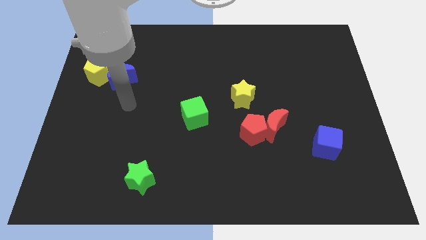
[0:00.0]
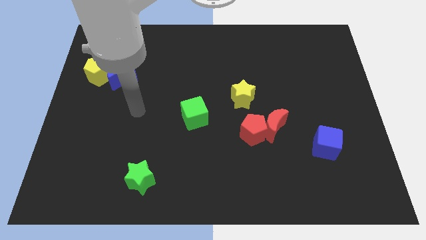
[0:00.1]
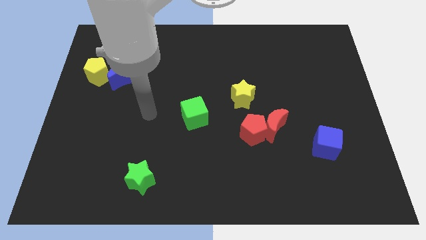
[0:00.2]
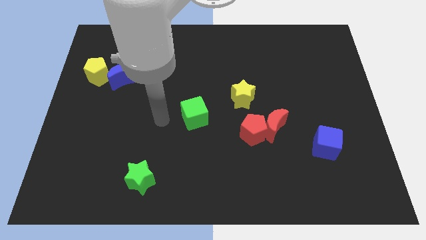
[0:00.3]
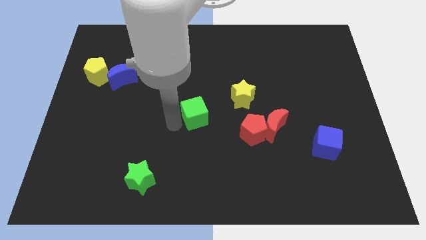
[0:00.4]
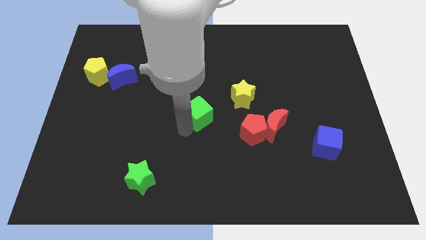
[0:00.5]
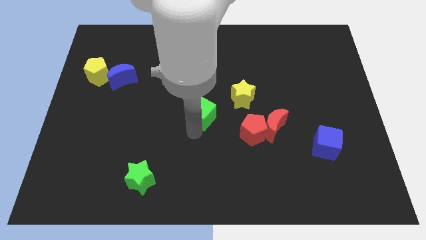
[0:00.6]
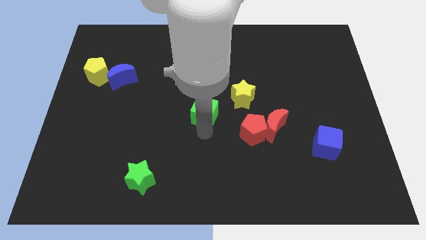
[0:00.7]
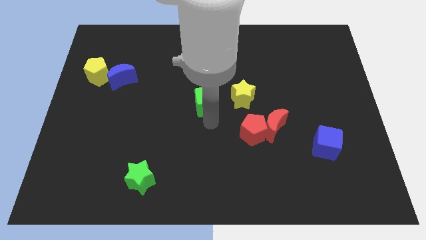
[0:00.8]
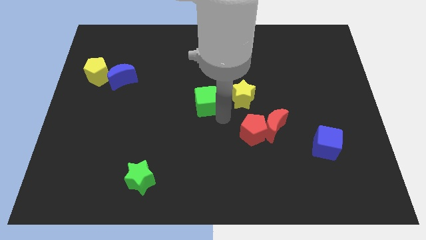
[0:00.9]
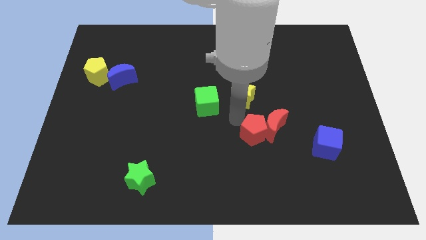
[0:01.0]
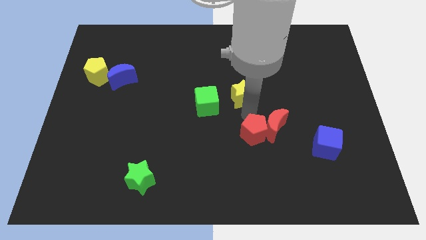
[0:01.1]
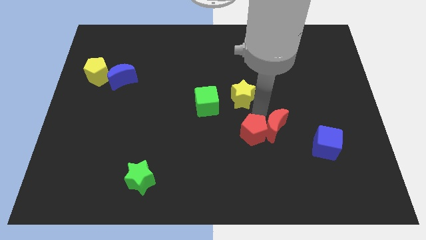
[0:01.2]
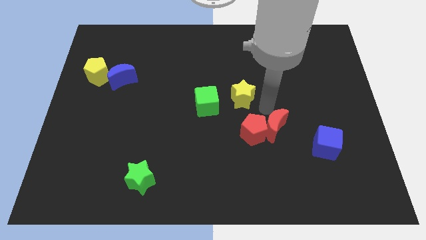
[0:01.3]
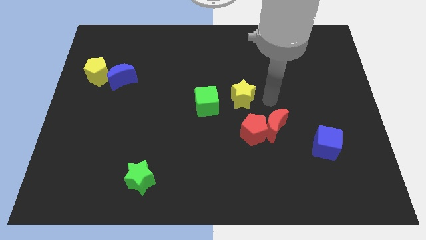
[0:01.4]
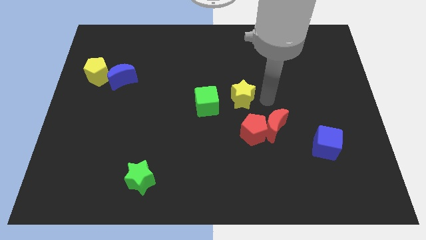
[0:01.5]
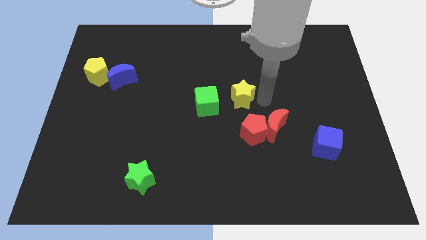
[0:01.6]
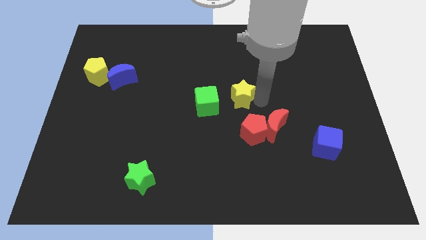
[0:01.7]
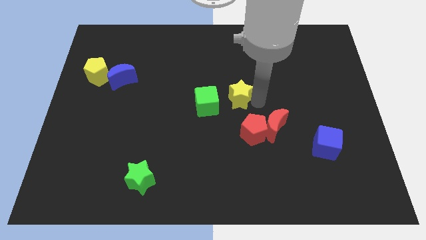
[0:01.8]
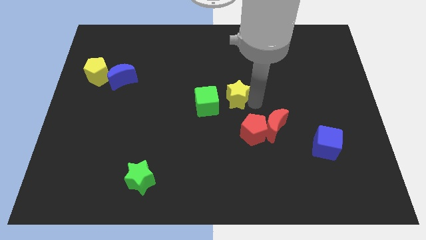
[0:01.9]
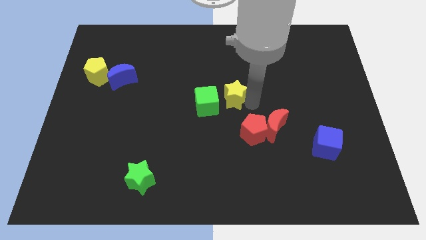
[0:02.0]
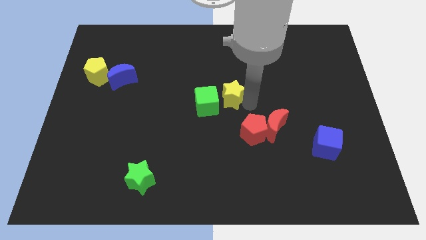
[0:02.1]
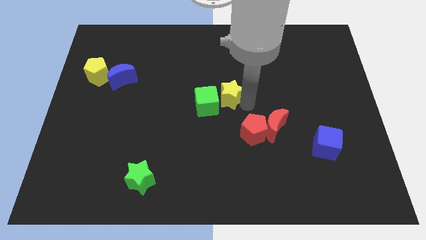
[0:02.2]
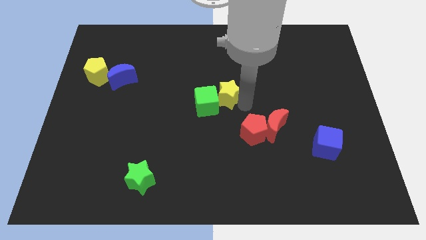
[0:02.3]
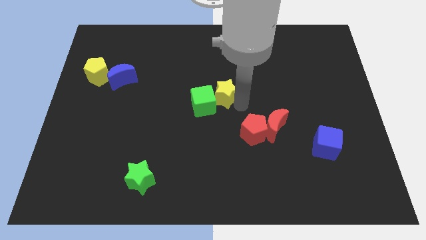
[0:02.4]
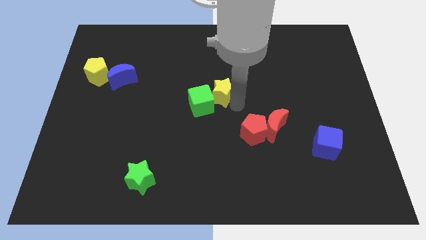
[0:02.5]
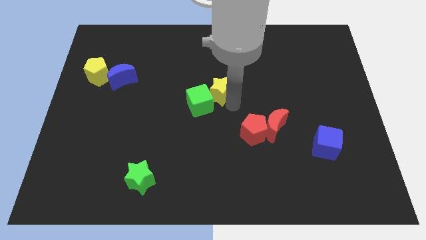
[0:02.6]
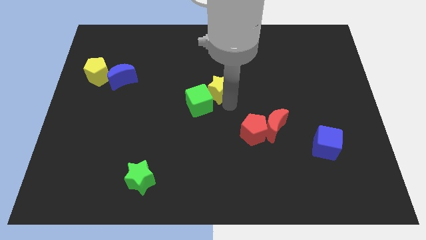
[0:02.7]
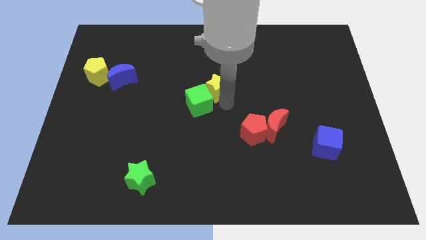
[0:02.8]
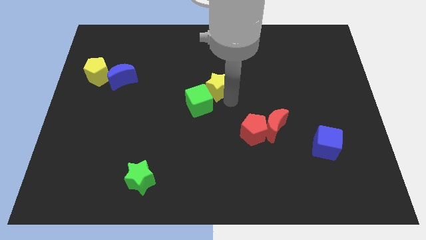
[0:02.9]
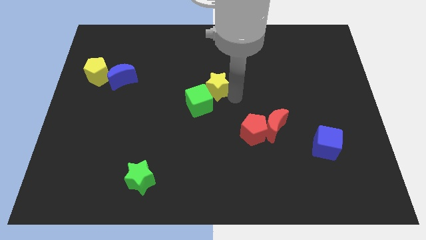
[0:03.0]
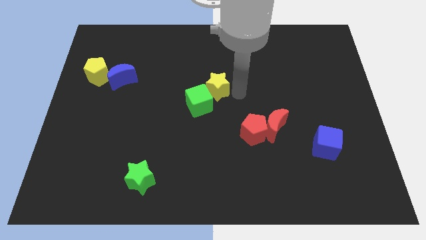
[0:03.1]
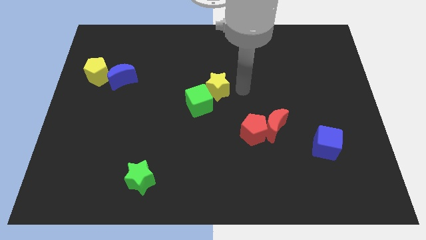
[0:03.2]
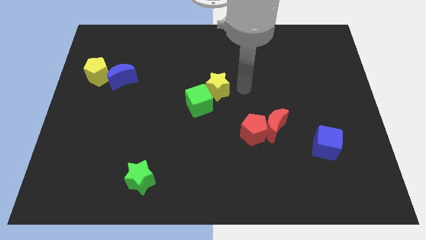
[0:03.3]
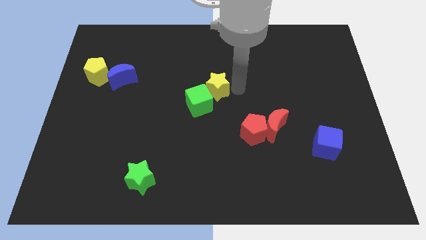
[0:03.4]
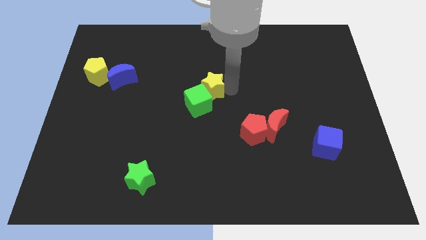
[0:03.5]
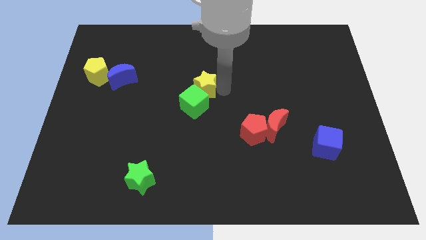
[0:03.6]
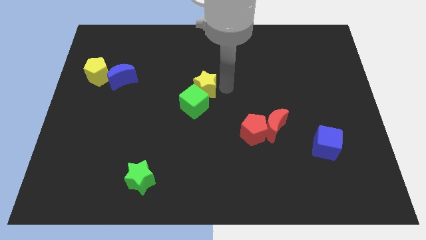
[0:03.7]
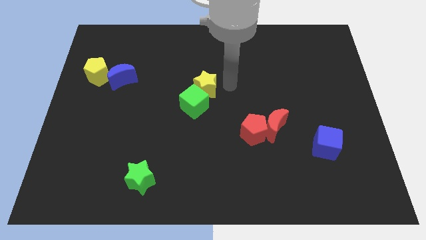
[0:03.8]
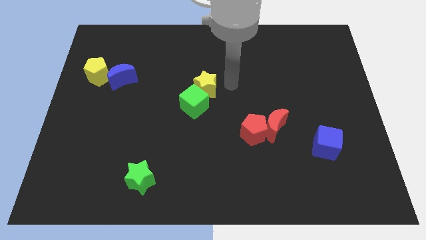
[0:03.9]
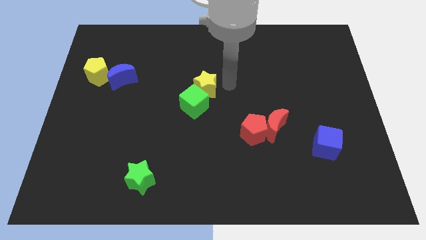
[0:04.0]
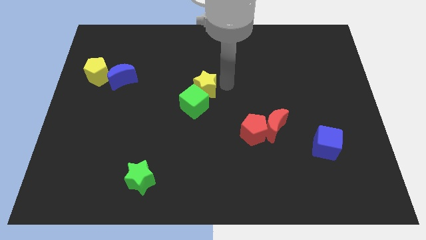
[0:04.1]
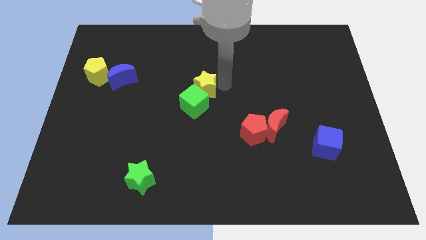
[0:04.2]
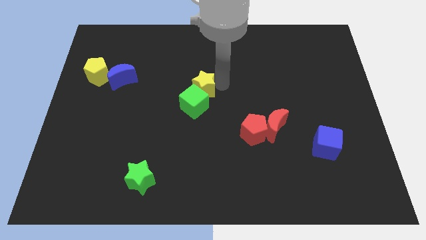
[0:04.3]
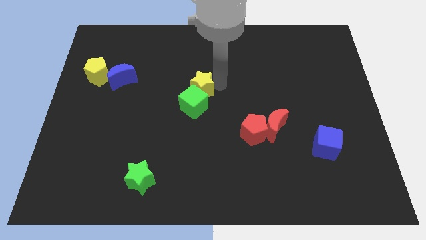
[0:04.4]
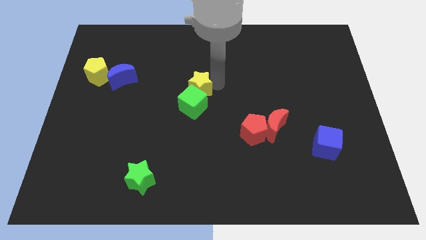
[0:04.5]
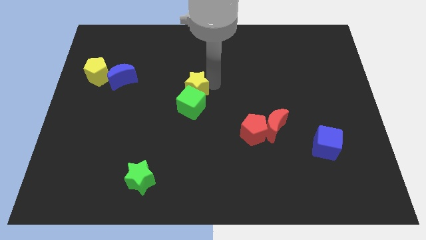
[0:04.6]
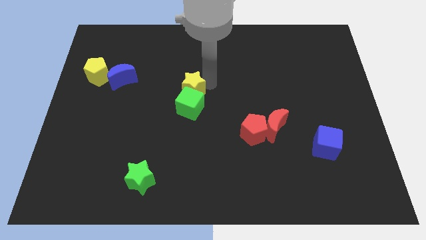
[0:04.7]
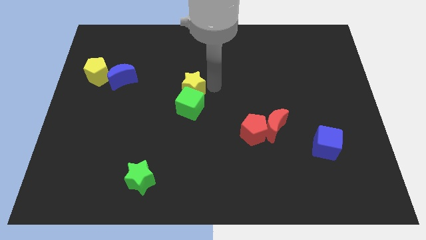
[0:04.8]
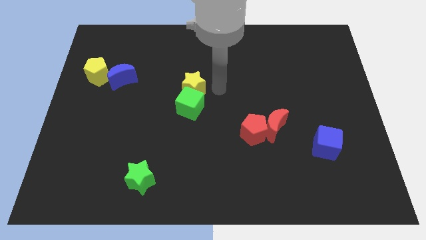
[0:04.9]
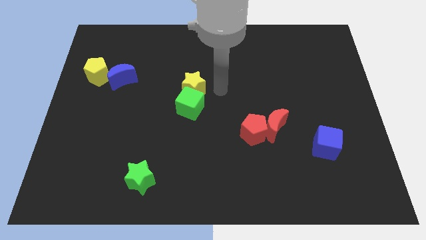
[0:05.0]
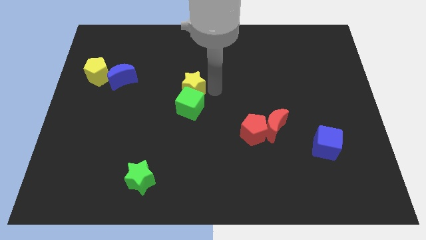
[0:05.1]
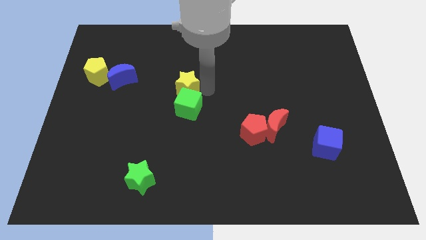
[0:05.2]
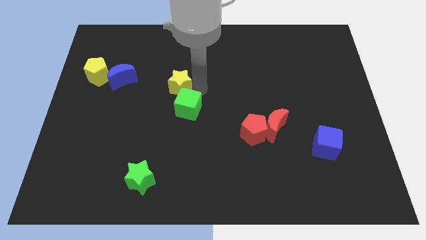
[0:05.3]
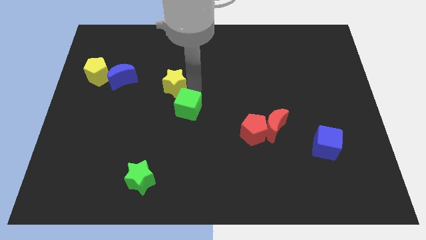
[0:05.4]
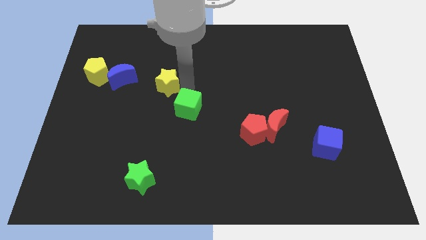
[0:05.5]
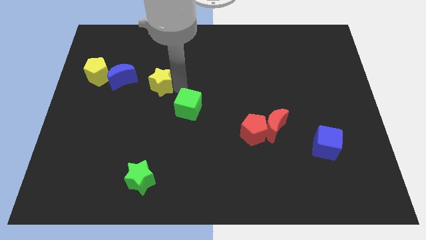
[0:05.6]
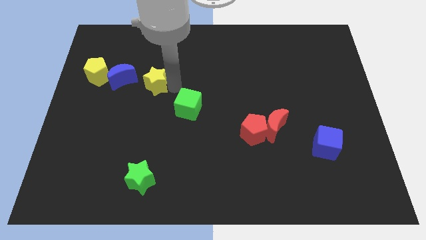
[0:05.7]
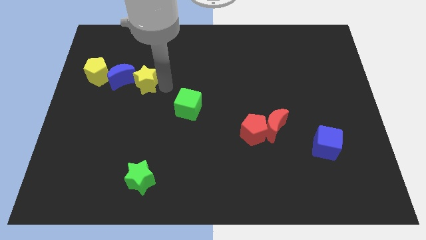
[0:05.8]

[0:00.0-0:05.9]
slide the yellow star towards the blue moon

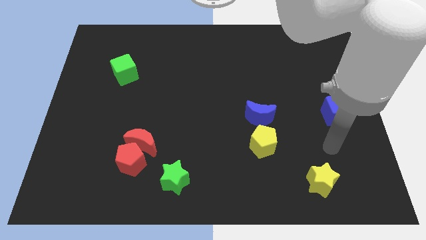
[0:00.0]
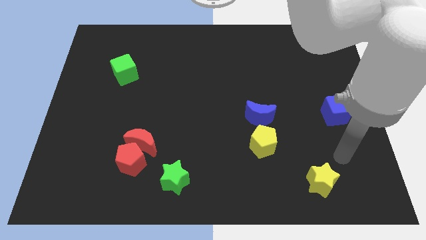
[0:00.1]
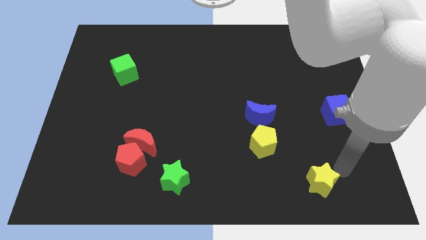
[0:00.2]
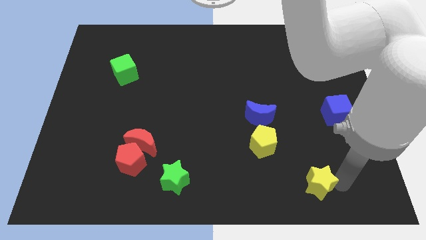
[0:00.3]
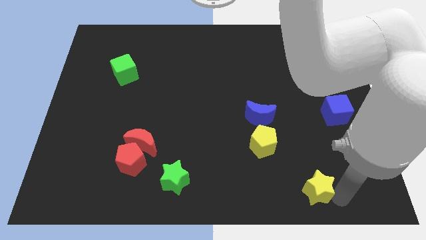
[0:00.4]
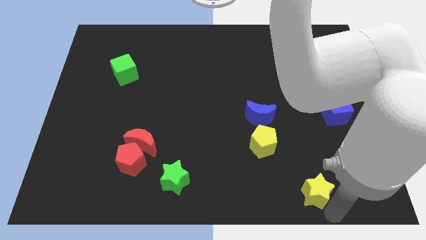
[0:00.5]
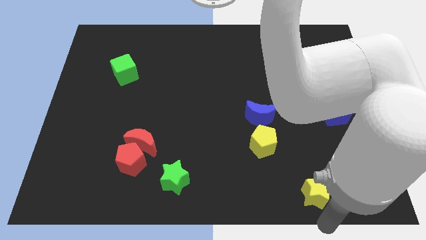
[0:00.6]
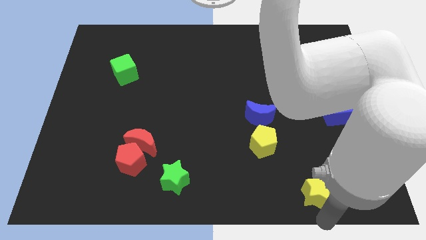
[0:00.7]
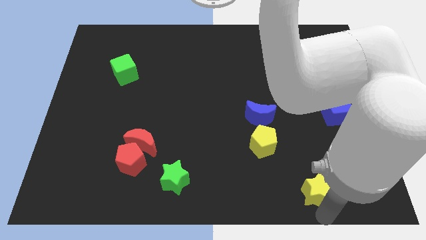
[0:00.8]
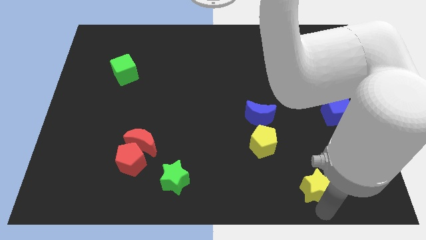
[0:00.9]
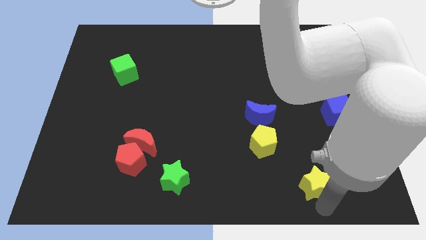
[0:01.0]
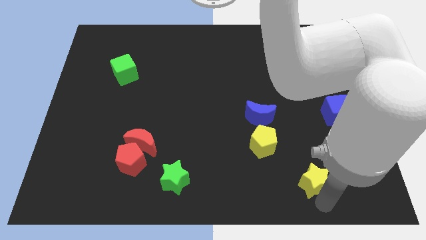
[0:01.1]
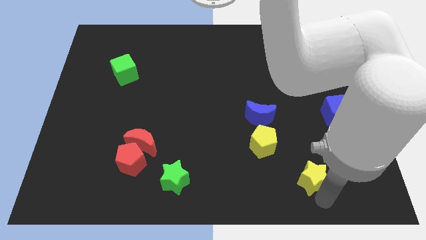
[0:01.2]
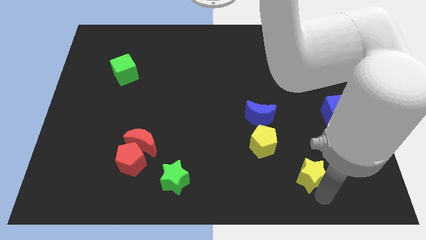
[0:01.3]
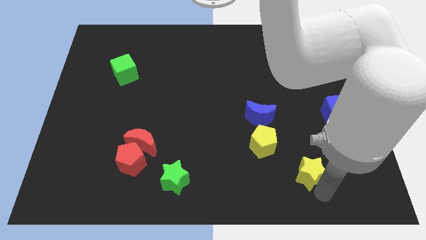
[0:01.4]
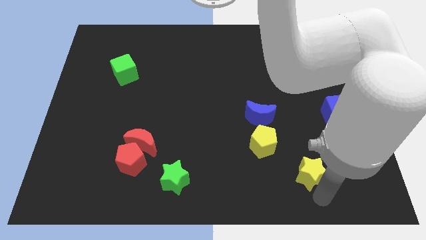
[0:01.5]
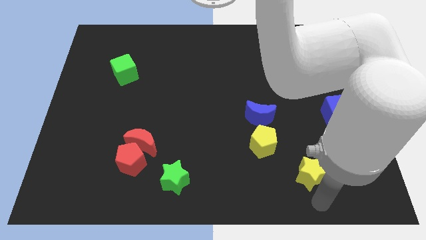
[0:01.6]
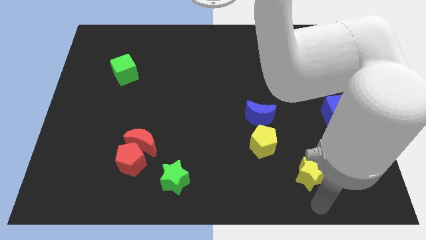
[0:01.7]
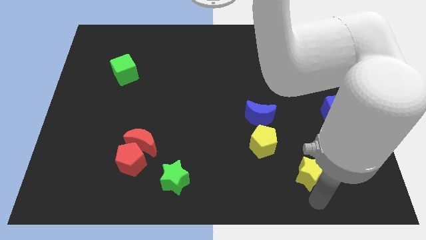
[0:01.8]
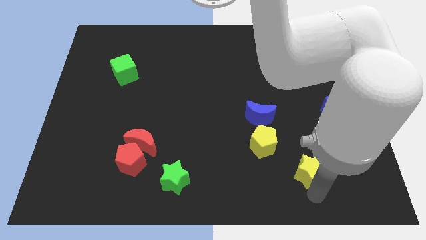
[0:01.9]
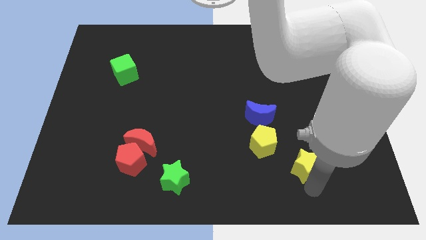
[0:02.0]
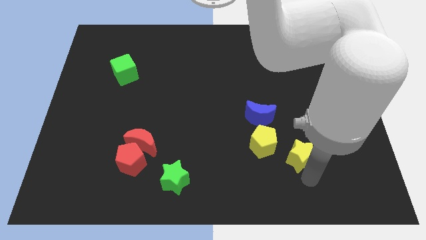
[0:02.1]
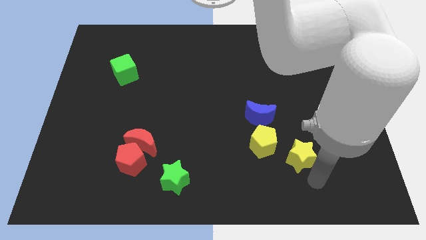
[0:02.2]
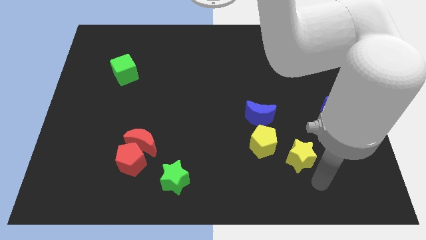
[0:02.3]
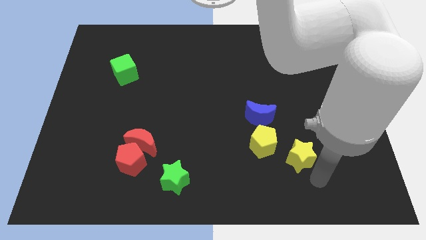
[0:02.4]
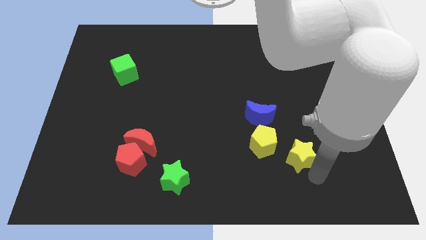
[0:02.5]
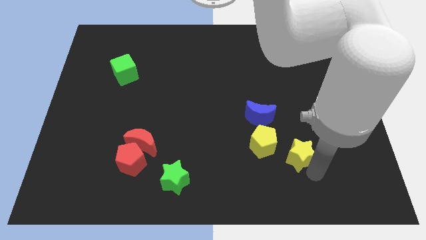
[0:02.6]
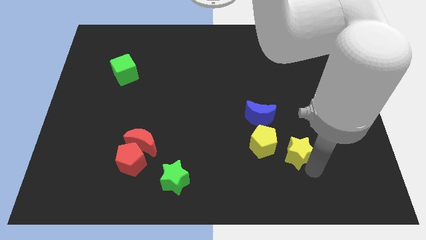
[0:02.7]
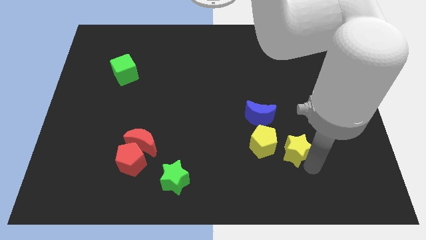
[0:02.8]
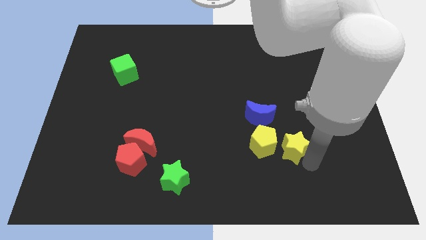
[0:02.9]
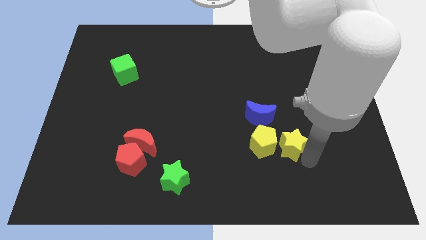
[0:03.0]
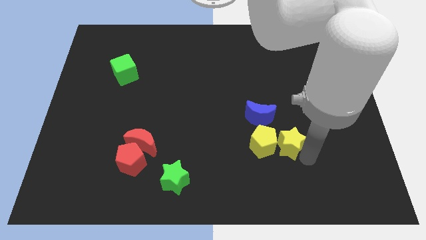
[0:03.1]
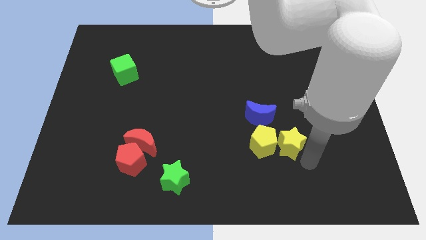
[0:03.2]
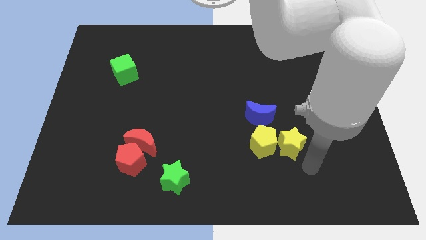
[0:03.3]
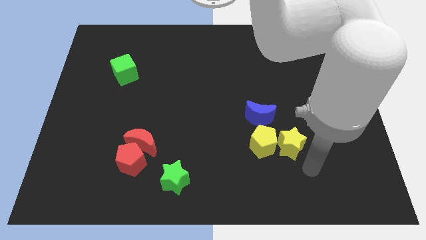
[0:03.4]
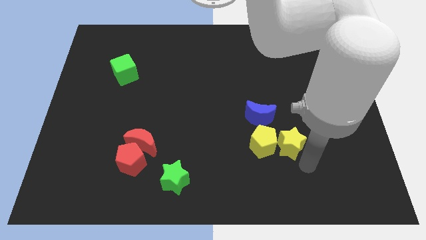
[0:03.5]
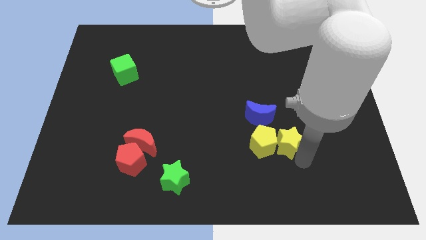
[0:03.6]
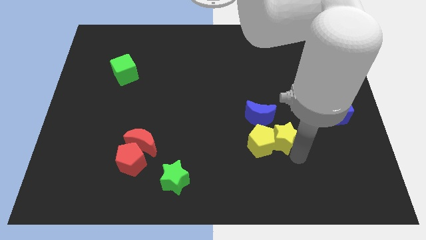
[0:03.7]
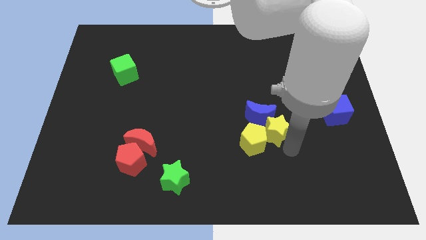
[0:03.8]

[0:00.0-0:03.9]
put the yellow star towards the blue moon
